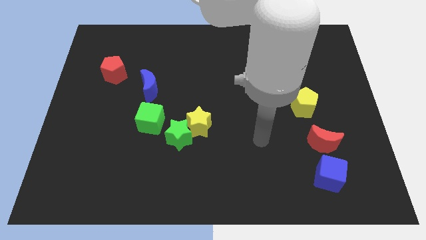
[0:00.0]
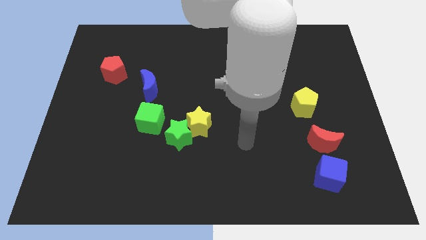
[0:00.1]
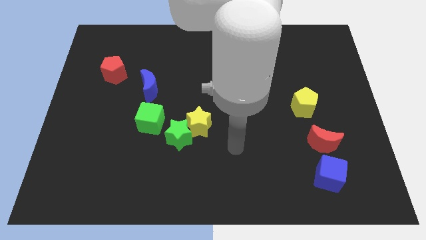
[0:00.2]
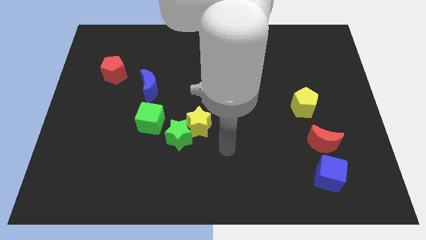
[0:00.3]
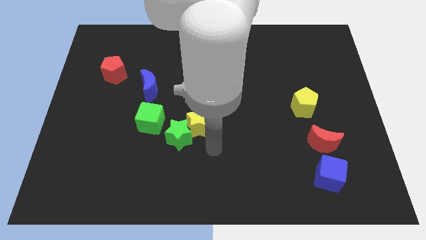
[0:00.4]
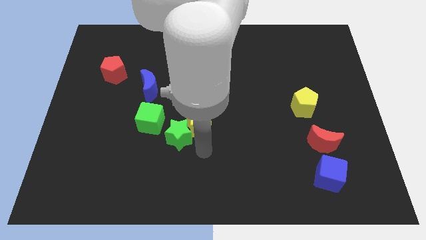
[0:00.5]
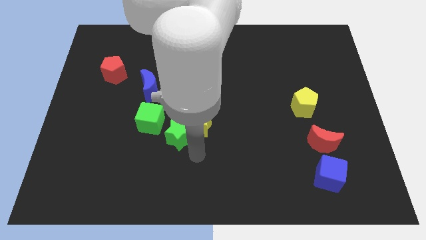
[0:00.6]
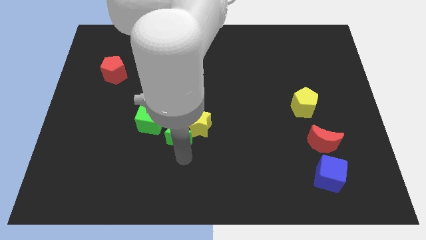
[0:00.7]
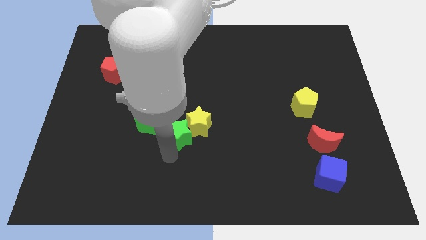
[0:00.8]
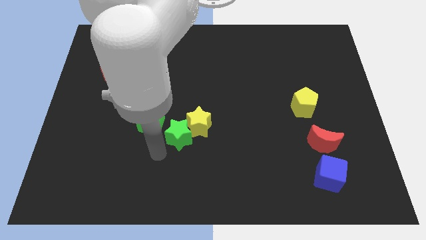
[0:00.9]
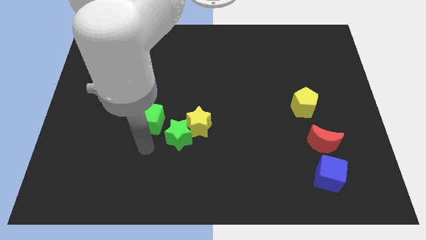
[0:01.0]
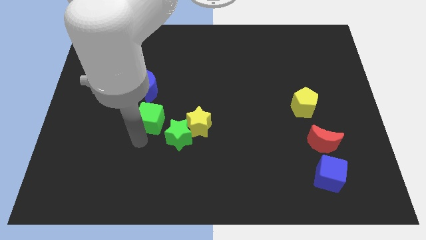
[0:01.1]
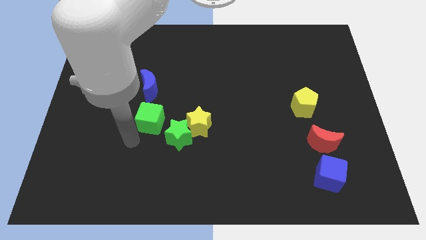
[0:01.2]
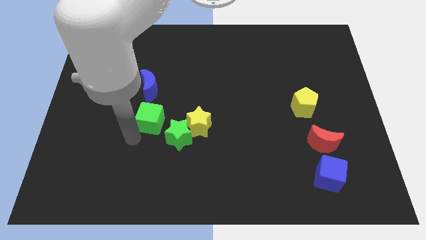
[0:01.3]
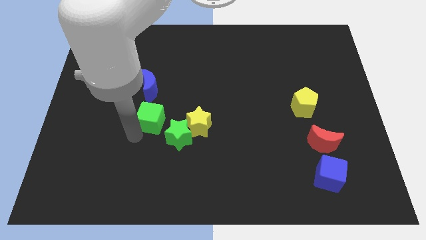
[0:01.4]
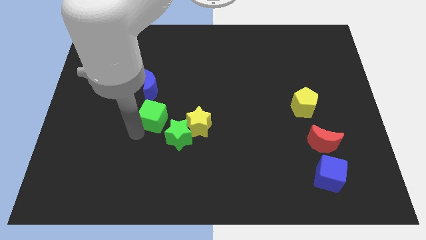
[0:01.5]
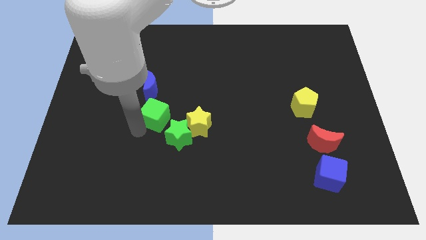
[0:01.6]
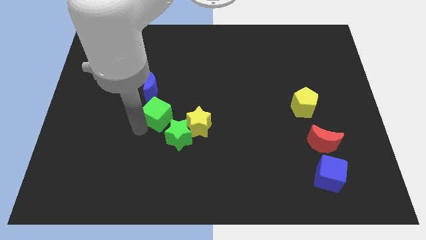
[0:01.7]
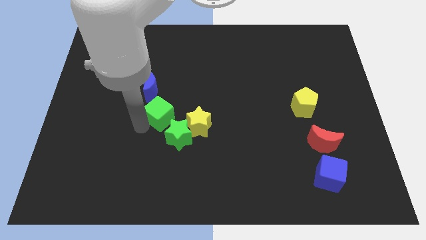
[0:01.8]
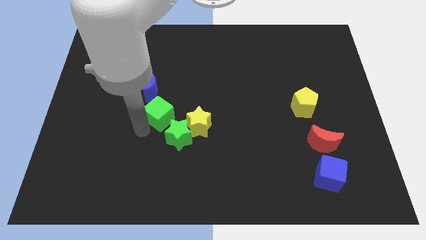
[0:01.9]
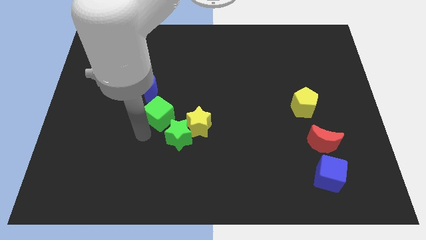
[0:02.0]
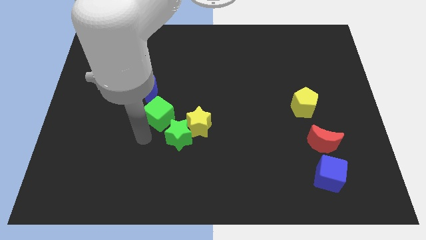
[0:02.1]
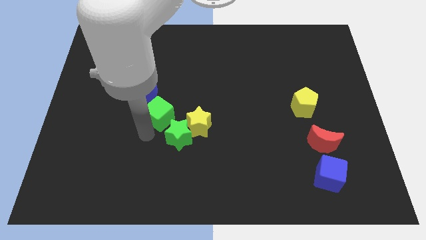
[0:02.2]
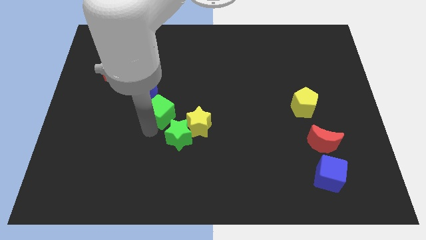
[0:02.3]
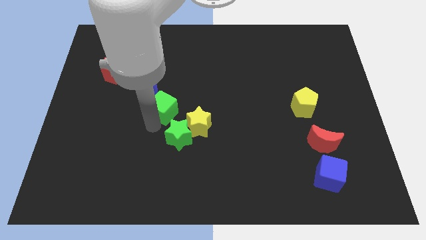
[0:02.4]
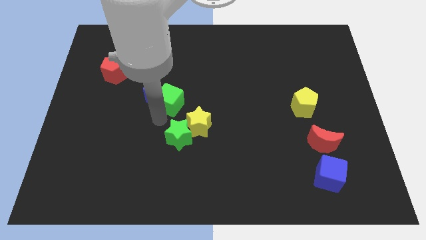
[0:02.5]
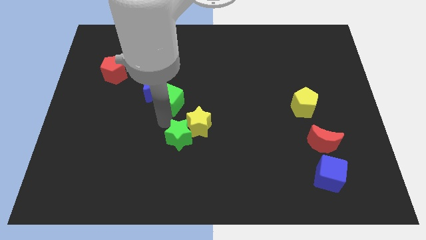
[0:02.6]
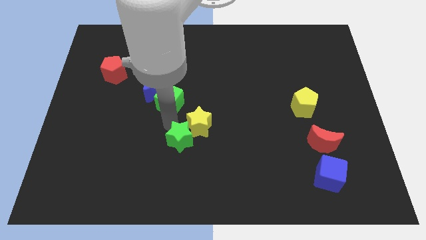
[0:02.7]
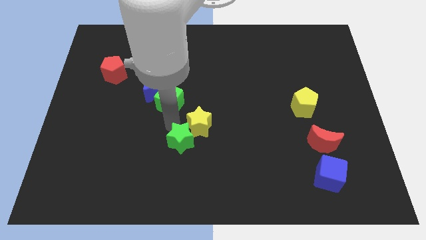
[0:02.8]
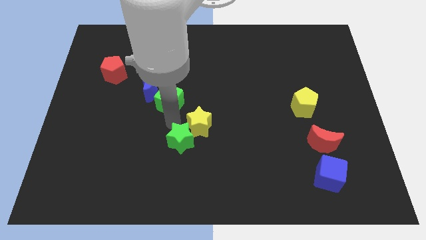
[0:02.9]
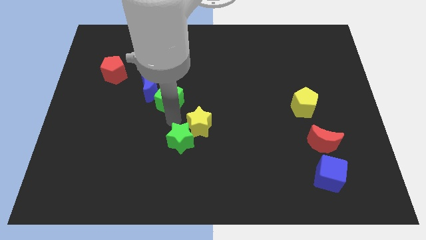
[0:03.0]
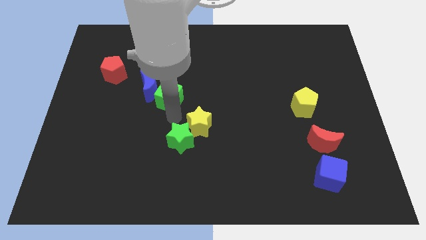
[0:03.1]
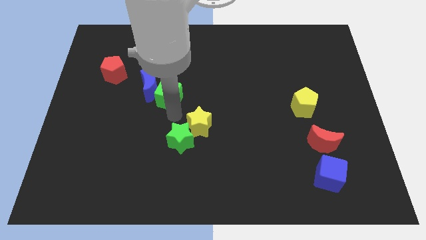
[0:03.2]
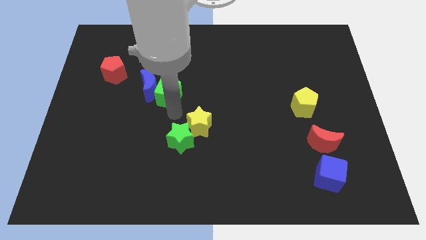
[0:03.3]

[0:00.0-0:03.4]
slightly move the green cube up

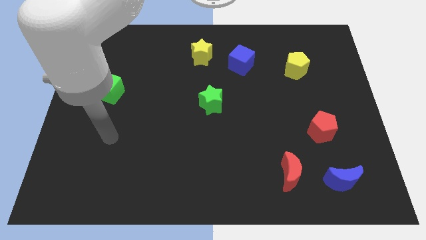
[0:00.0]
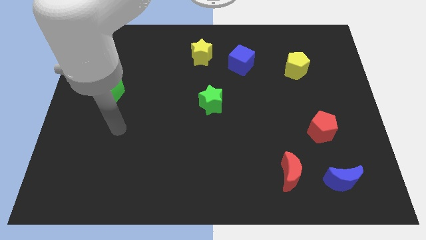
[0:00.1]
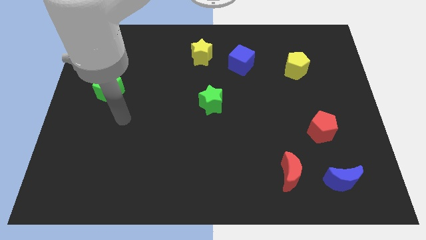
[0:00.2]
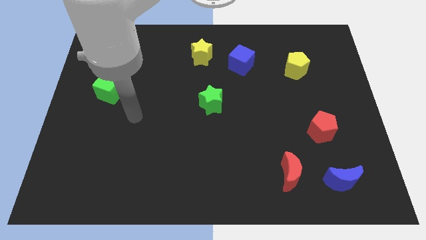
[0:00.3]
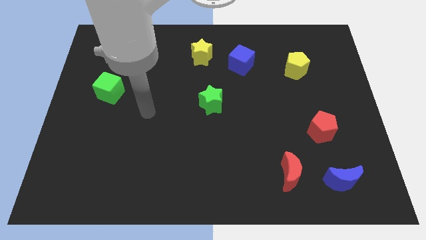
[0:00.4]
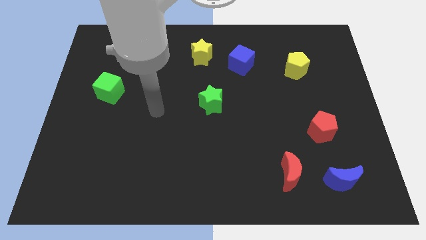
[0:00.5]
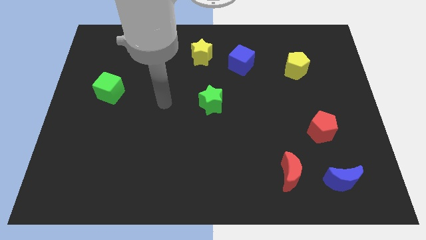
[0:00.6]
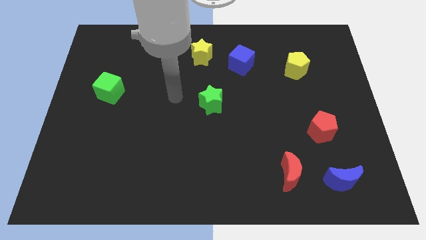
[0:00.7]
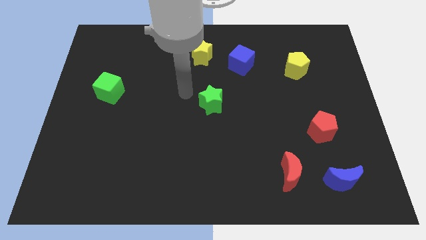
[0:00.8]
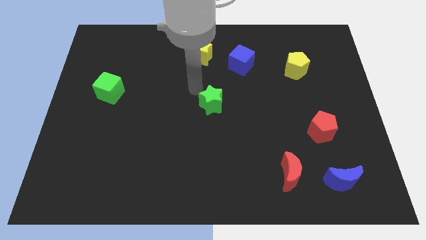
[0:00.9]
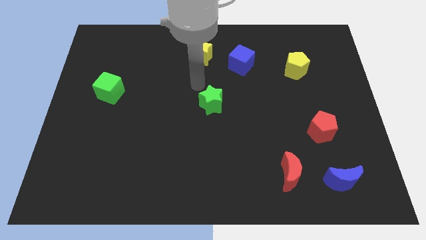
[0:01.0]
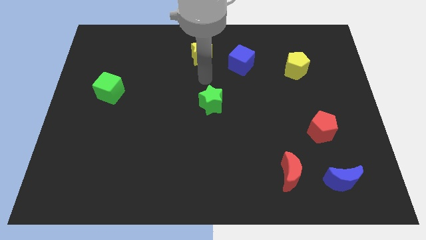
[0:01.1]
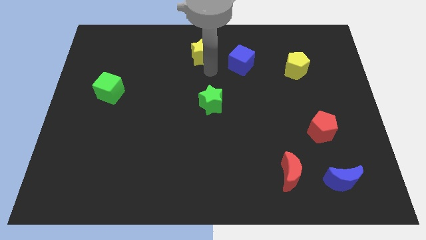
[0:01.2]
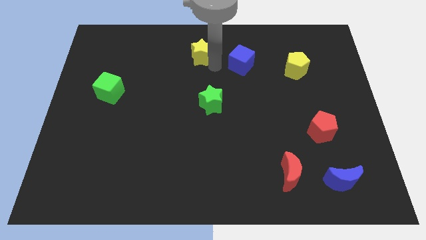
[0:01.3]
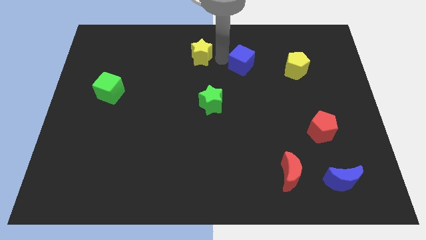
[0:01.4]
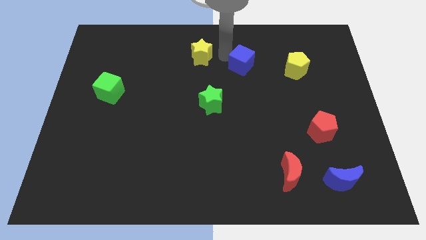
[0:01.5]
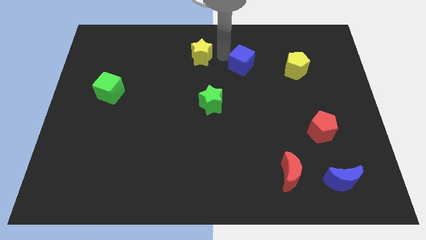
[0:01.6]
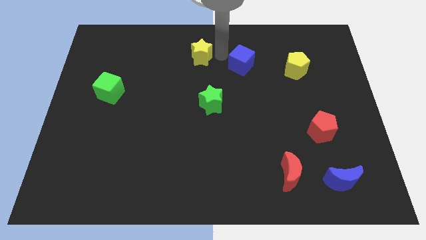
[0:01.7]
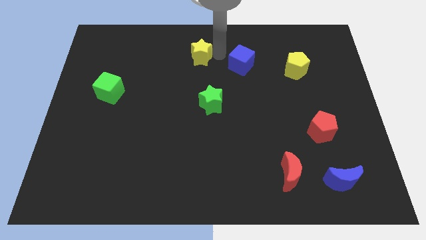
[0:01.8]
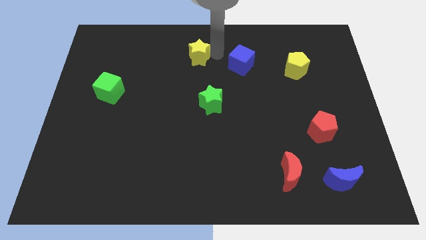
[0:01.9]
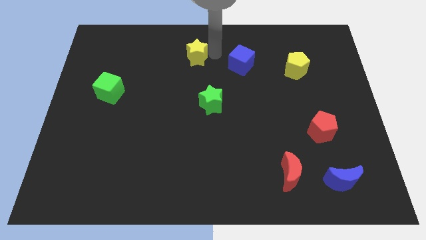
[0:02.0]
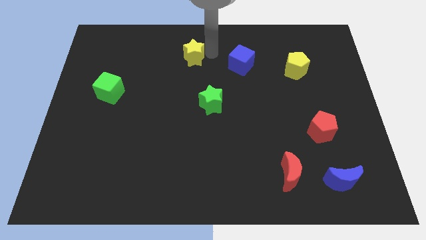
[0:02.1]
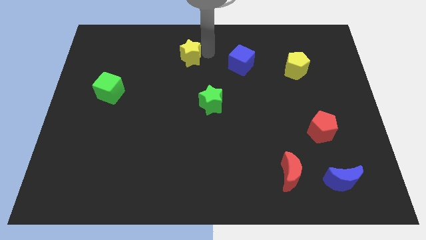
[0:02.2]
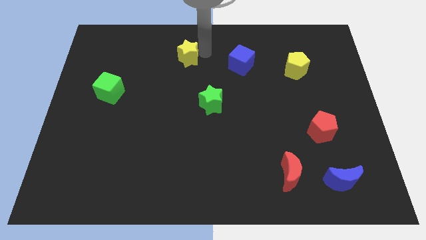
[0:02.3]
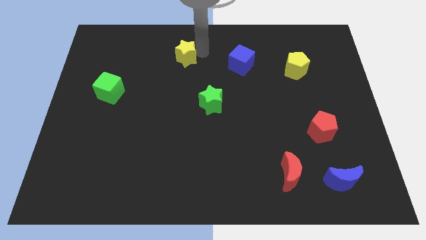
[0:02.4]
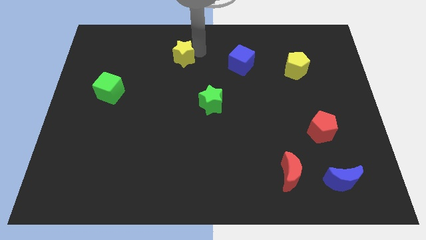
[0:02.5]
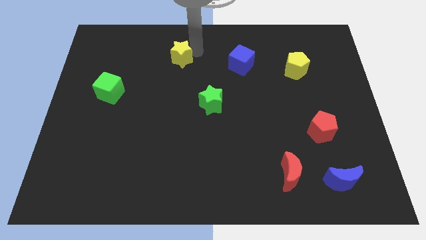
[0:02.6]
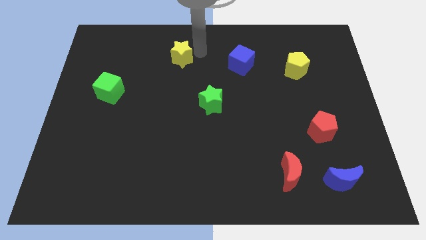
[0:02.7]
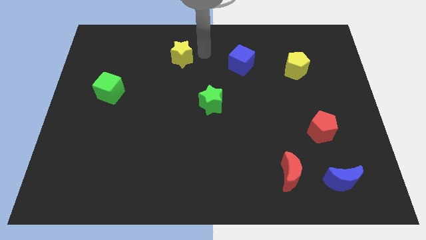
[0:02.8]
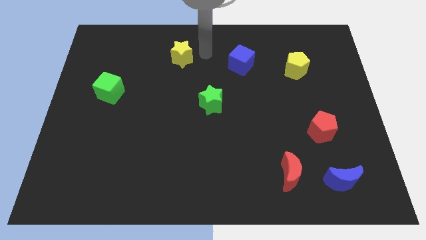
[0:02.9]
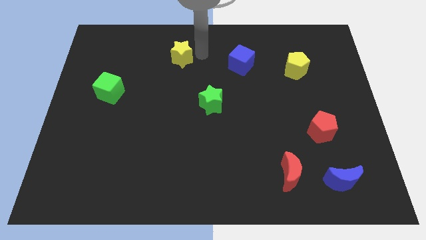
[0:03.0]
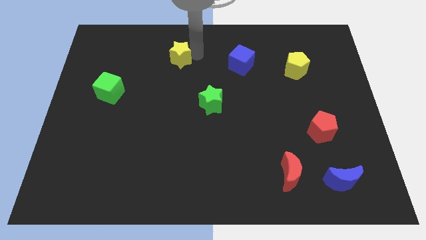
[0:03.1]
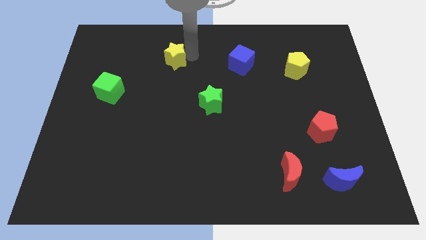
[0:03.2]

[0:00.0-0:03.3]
move the yellow star left somewhat

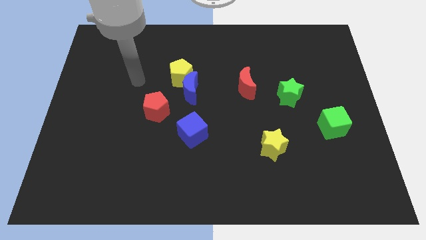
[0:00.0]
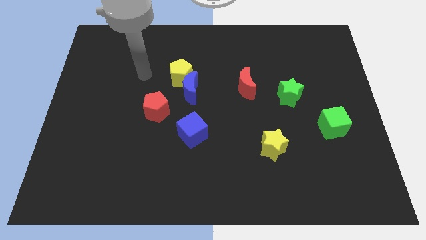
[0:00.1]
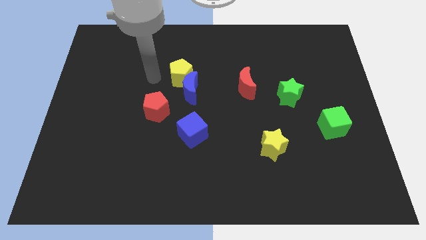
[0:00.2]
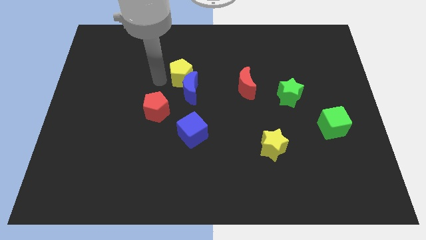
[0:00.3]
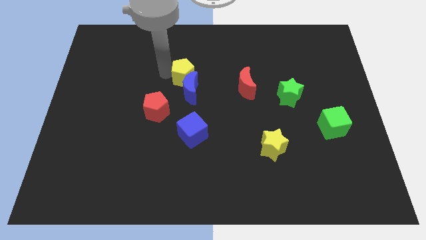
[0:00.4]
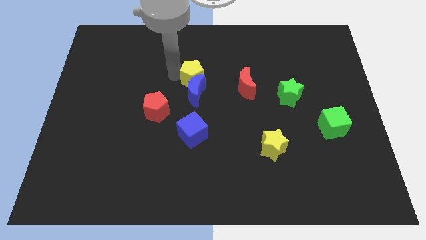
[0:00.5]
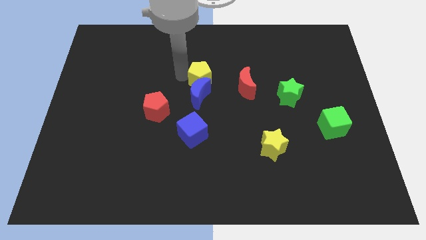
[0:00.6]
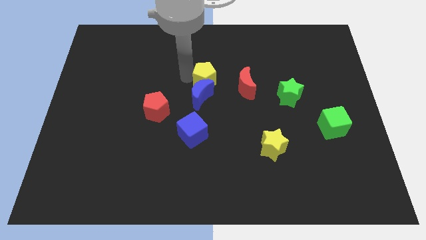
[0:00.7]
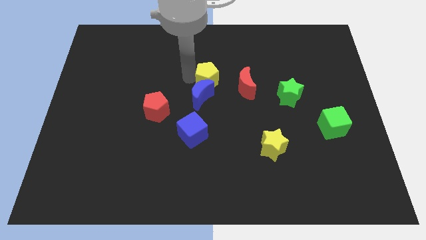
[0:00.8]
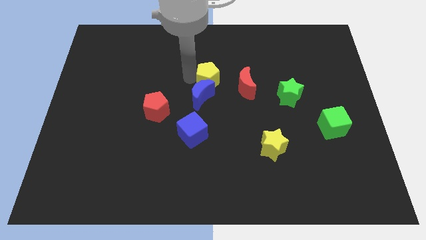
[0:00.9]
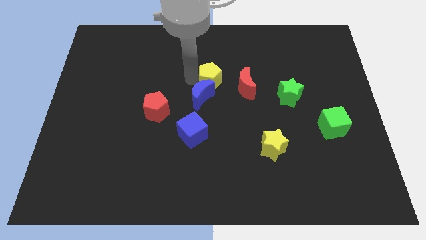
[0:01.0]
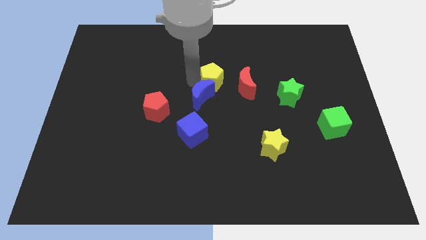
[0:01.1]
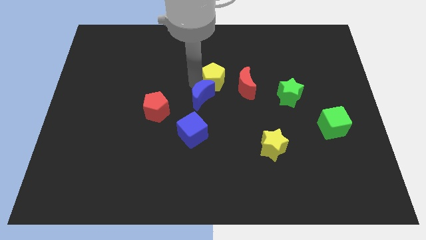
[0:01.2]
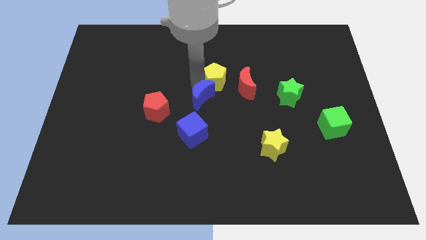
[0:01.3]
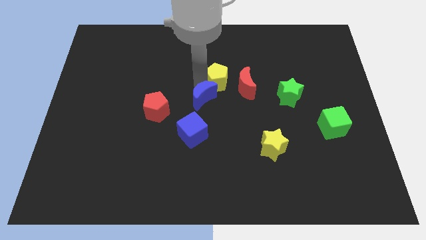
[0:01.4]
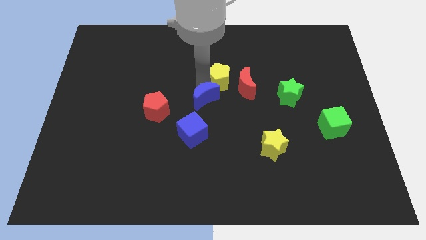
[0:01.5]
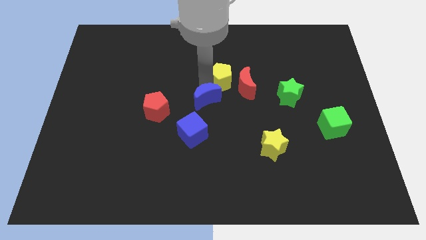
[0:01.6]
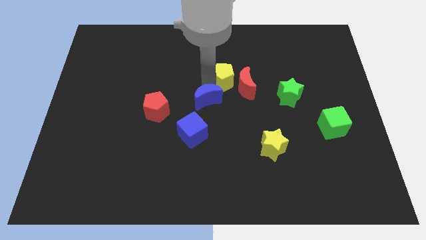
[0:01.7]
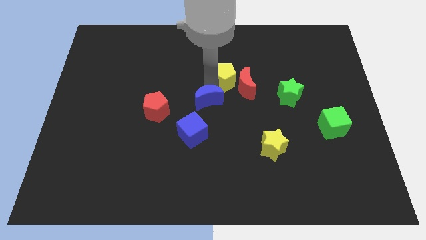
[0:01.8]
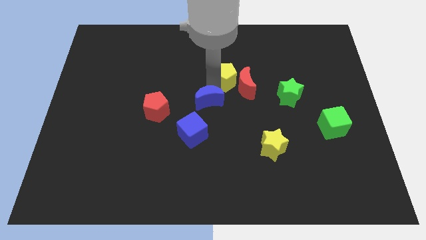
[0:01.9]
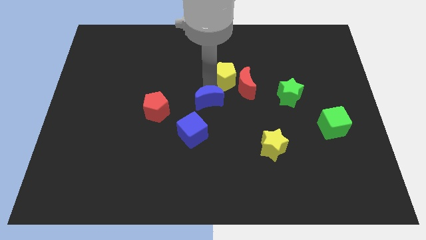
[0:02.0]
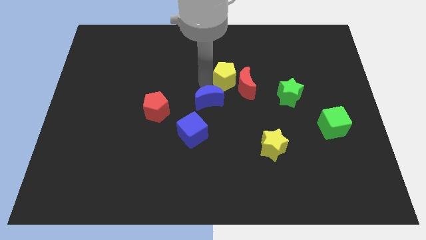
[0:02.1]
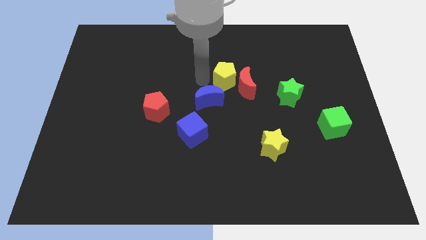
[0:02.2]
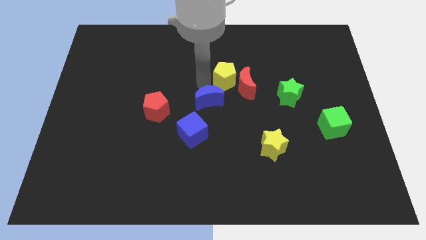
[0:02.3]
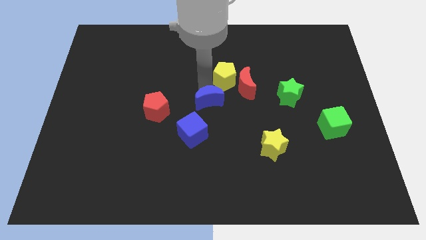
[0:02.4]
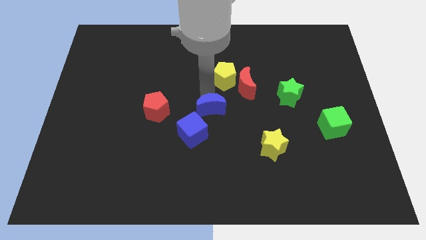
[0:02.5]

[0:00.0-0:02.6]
push the blue moon a little bit down and right
